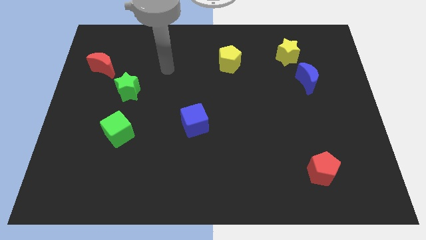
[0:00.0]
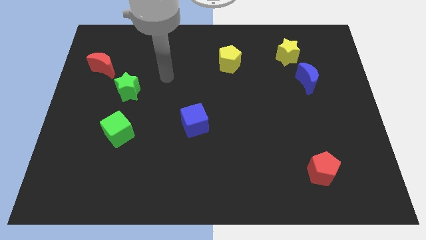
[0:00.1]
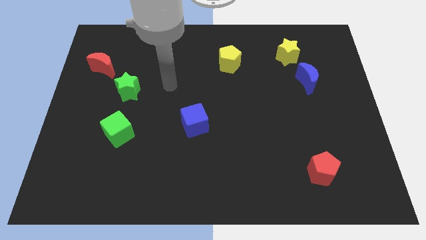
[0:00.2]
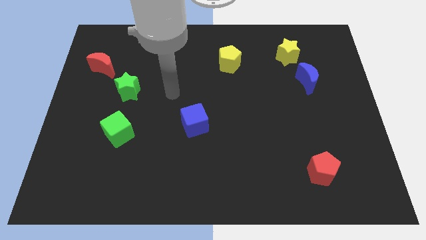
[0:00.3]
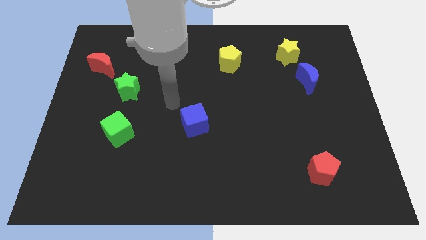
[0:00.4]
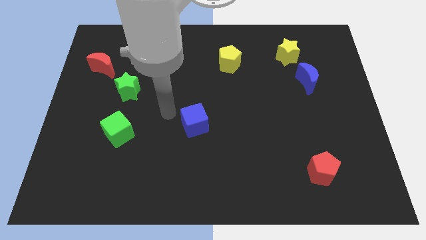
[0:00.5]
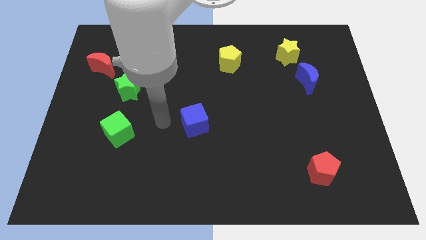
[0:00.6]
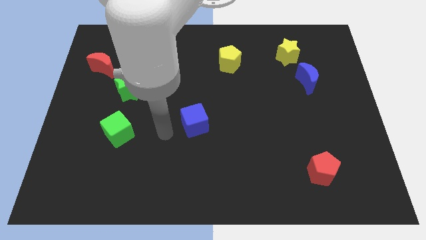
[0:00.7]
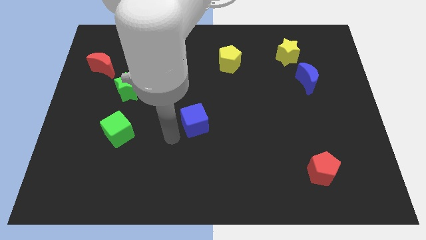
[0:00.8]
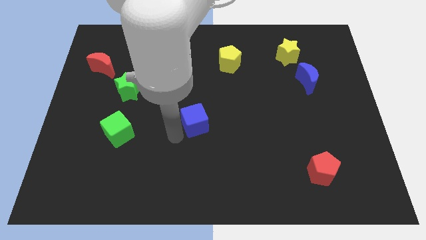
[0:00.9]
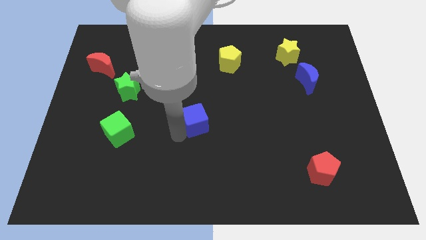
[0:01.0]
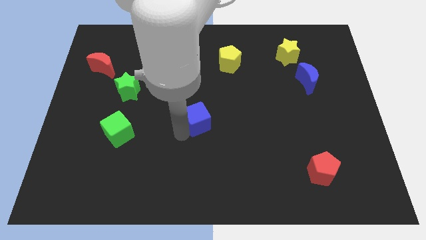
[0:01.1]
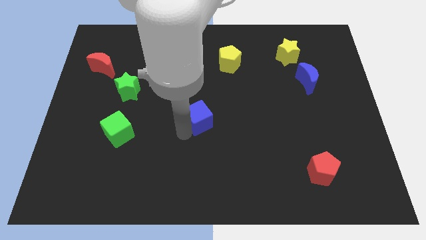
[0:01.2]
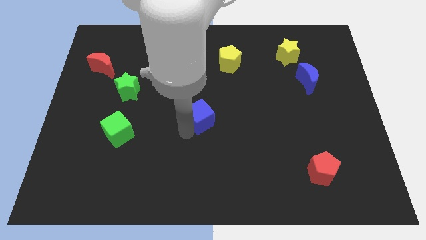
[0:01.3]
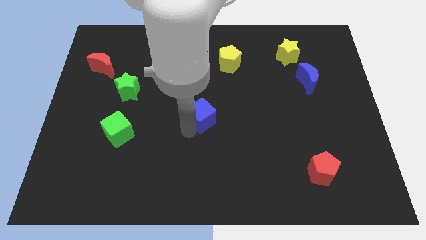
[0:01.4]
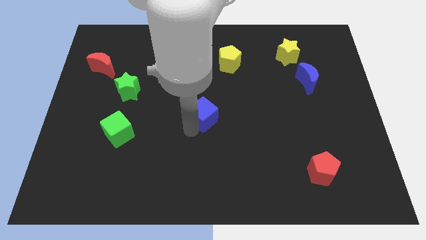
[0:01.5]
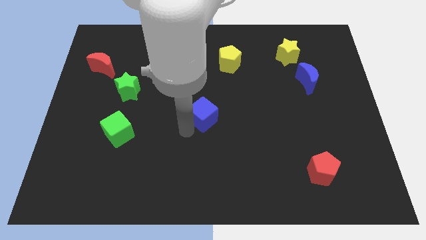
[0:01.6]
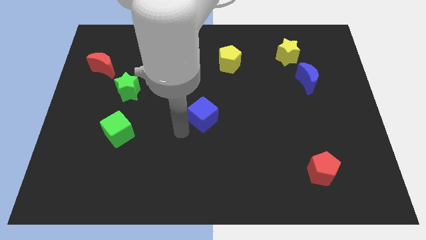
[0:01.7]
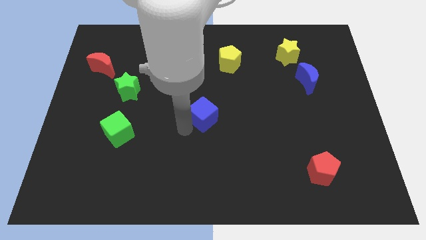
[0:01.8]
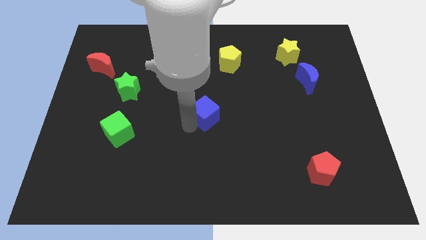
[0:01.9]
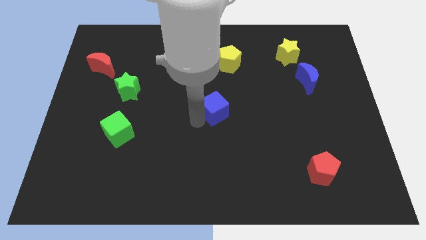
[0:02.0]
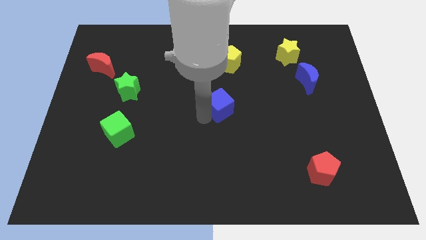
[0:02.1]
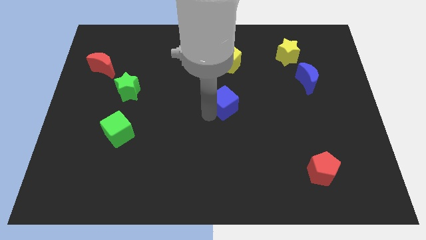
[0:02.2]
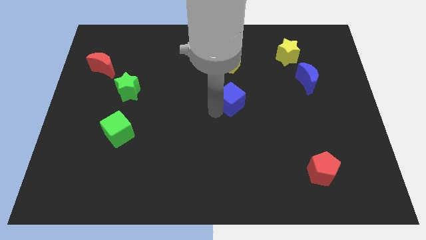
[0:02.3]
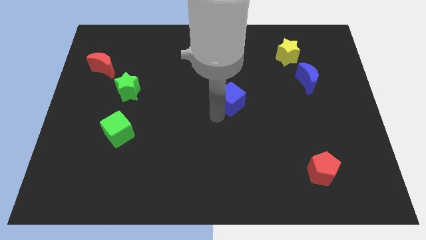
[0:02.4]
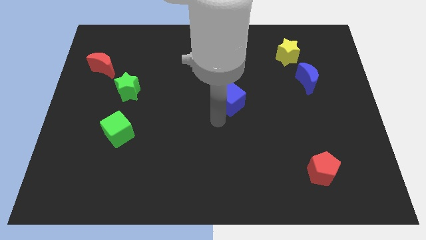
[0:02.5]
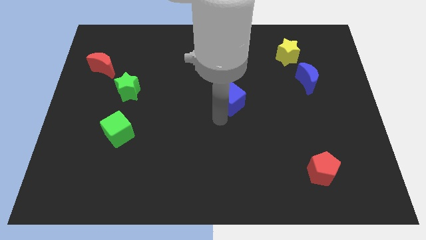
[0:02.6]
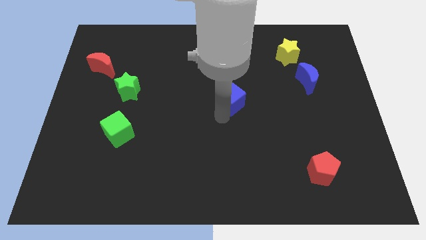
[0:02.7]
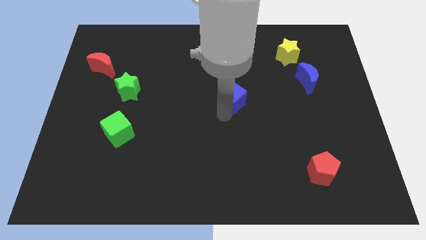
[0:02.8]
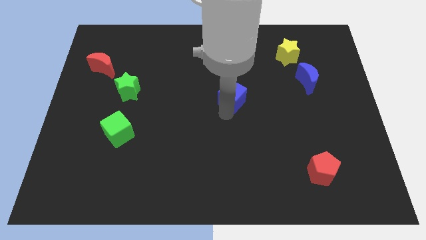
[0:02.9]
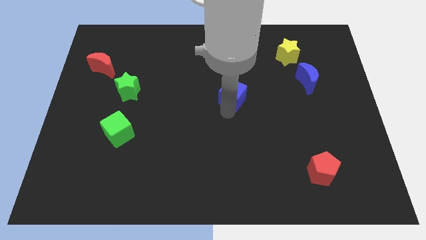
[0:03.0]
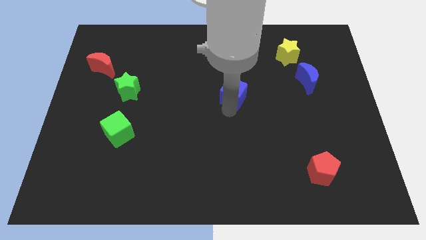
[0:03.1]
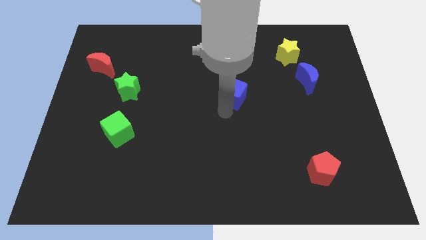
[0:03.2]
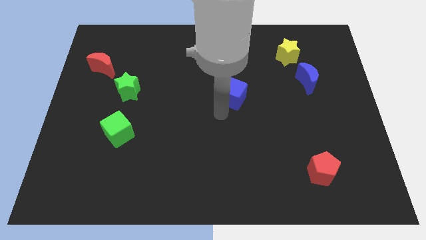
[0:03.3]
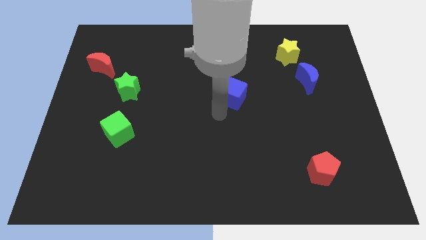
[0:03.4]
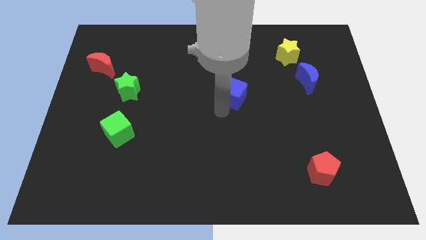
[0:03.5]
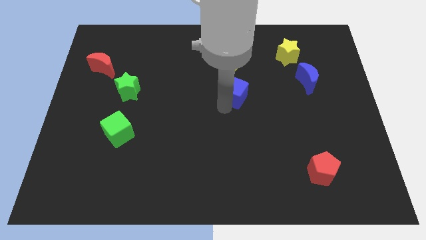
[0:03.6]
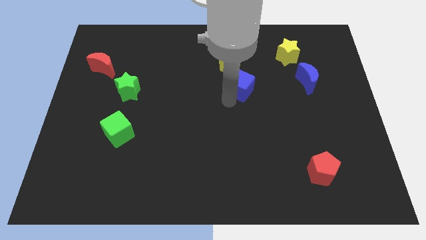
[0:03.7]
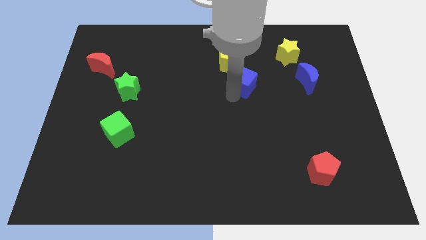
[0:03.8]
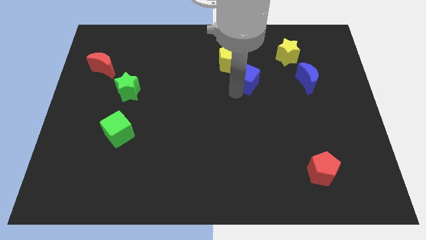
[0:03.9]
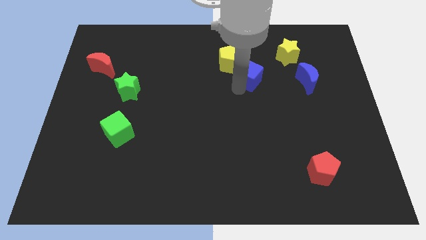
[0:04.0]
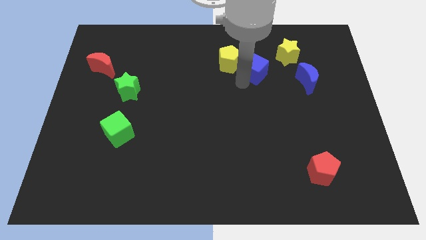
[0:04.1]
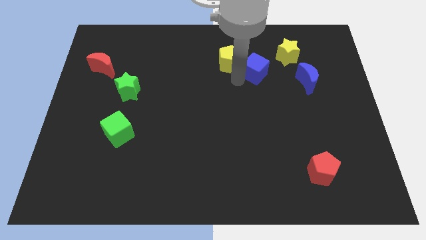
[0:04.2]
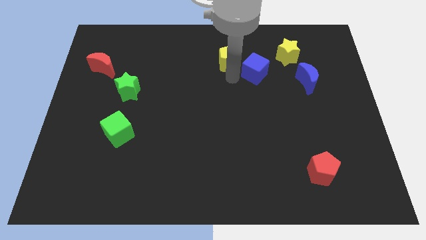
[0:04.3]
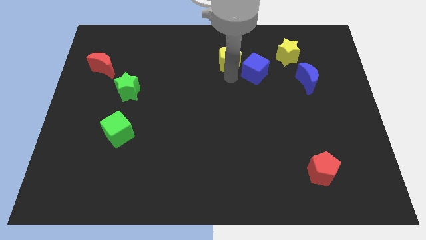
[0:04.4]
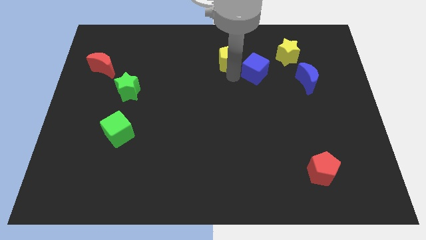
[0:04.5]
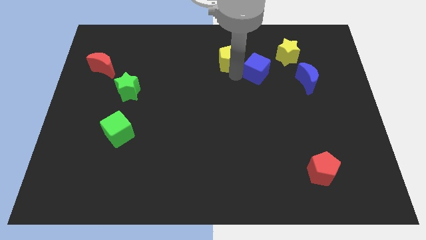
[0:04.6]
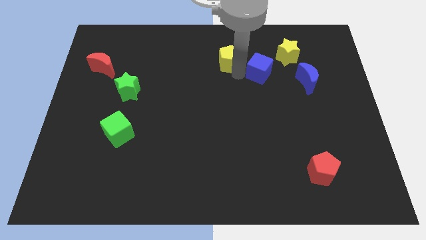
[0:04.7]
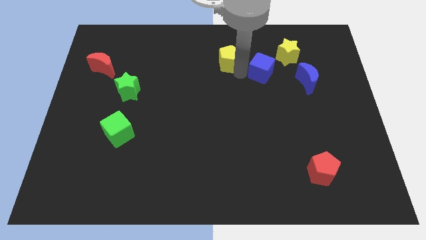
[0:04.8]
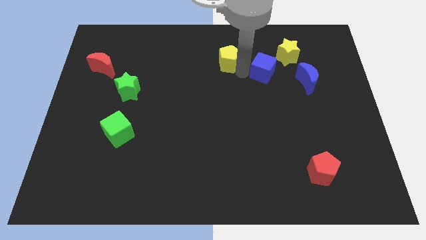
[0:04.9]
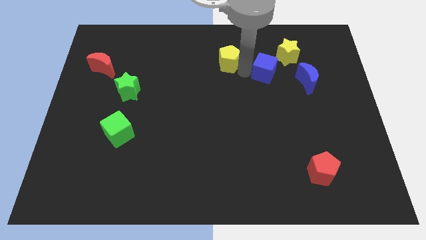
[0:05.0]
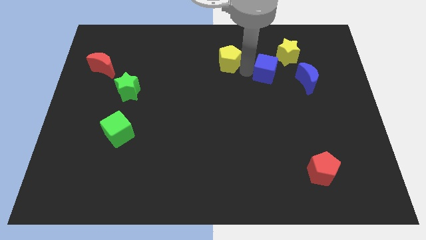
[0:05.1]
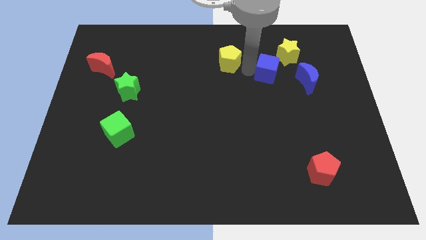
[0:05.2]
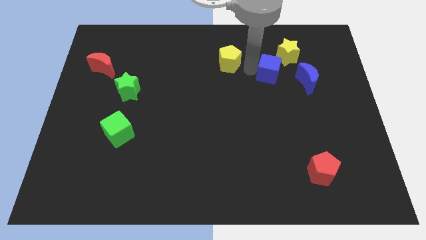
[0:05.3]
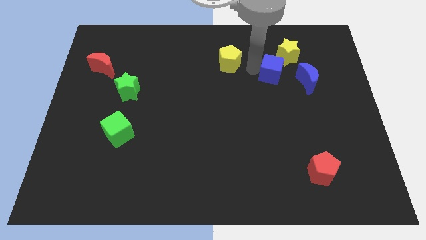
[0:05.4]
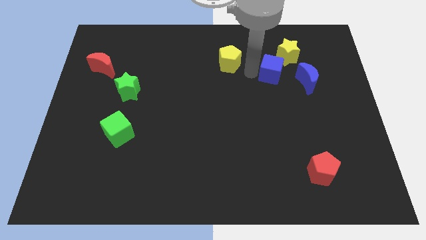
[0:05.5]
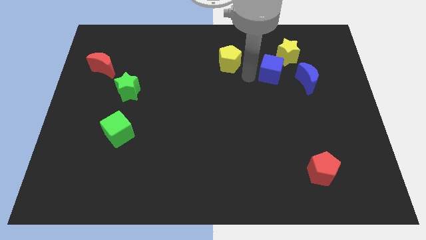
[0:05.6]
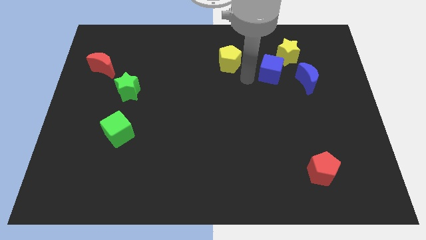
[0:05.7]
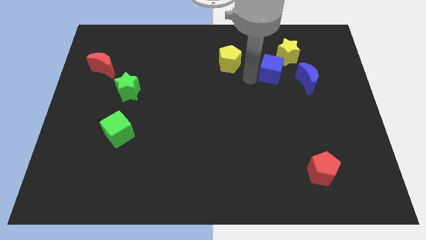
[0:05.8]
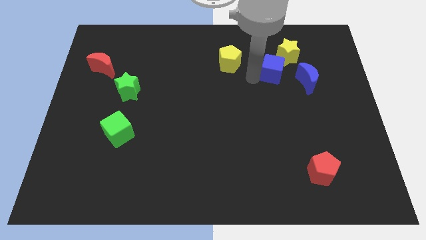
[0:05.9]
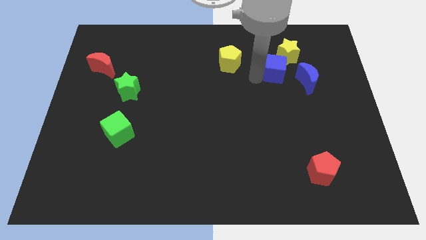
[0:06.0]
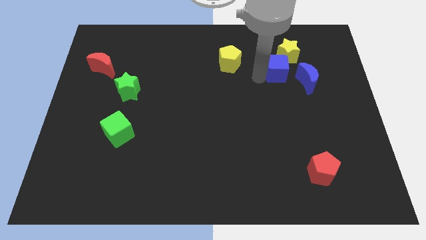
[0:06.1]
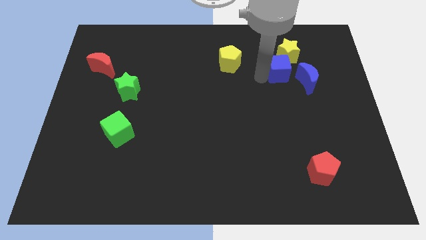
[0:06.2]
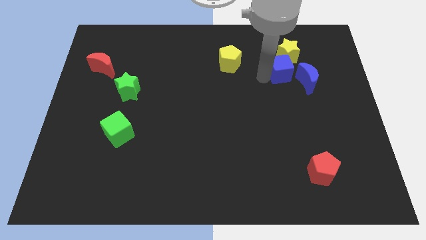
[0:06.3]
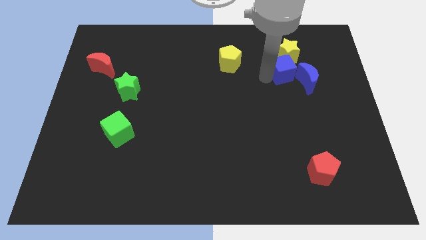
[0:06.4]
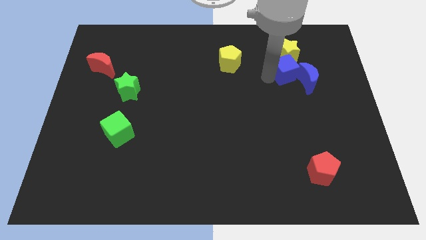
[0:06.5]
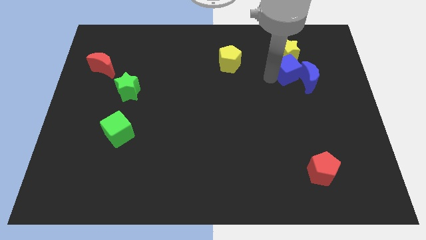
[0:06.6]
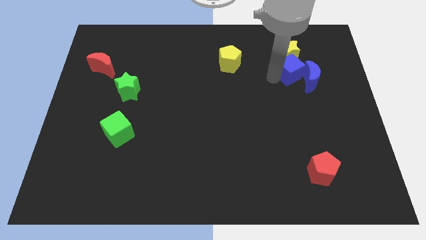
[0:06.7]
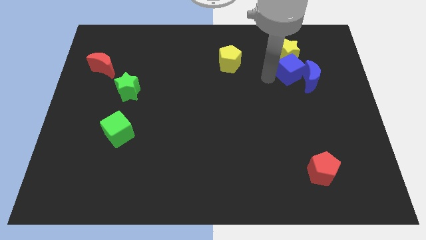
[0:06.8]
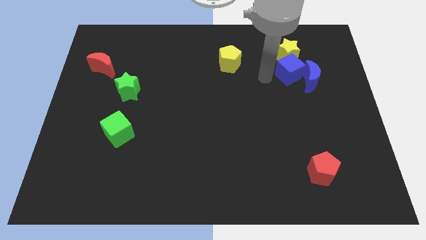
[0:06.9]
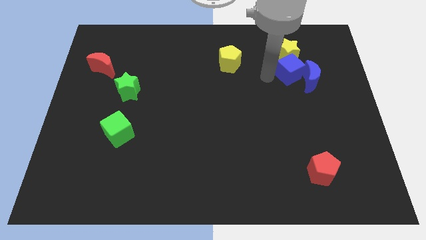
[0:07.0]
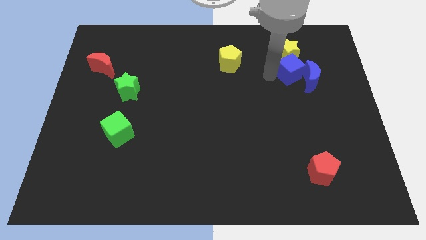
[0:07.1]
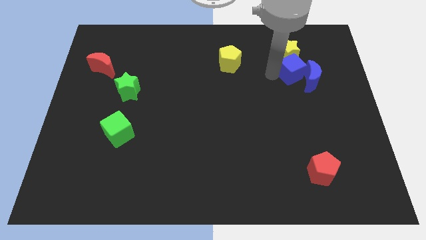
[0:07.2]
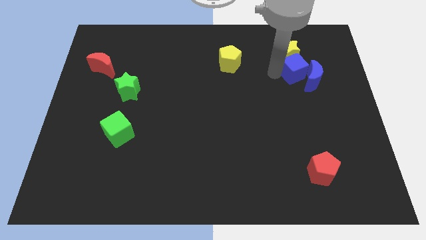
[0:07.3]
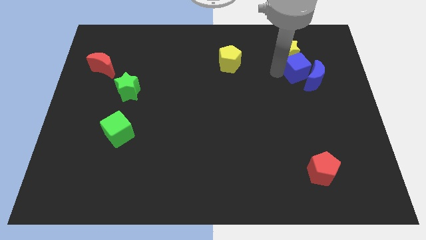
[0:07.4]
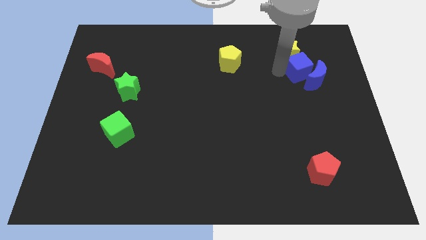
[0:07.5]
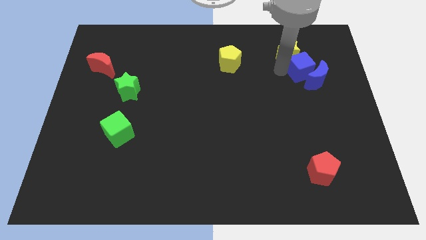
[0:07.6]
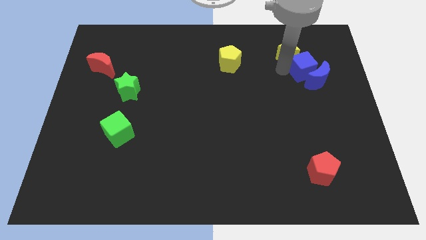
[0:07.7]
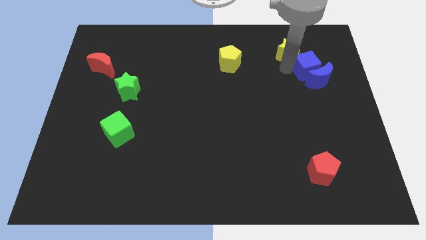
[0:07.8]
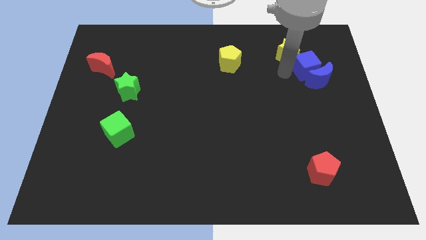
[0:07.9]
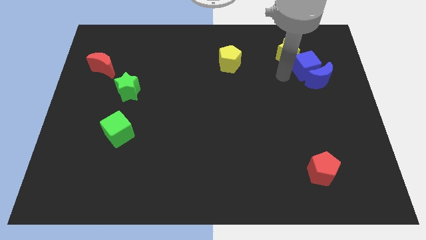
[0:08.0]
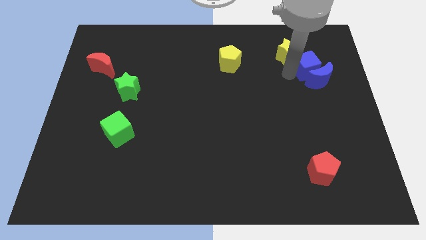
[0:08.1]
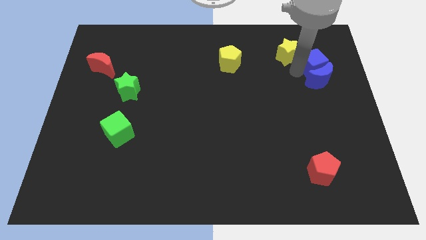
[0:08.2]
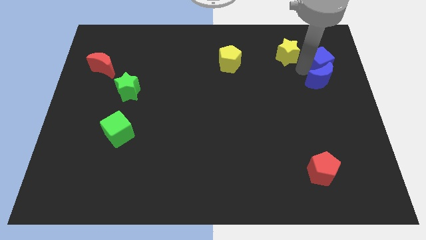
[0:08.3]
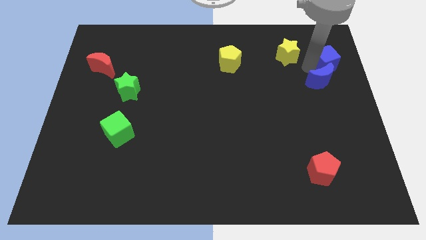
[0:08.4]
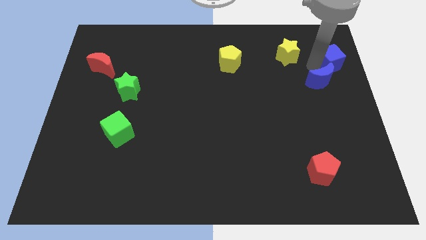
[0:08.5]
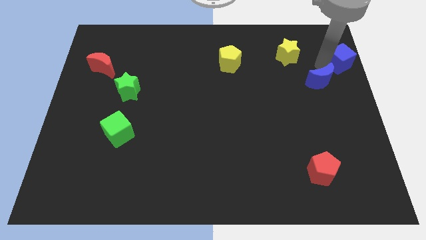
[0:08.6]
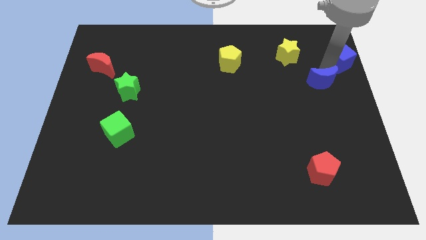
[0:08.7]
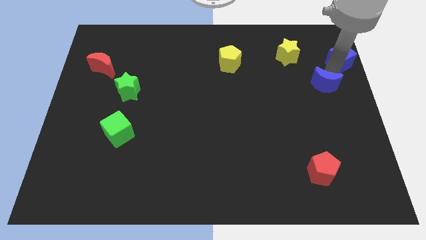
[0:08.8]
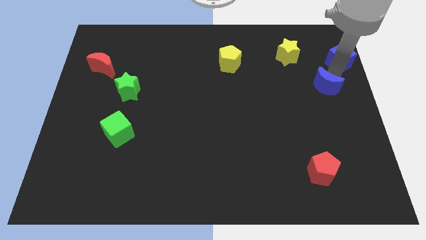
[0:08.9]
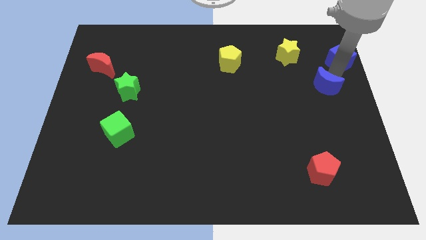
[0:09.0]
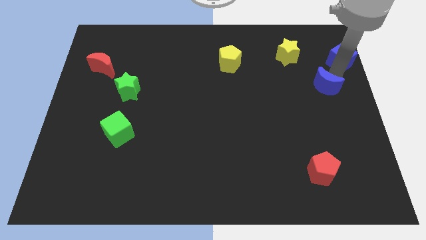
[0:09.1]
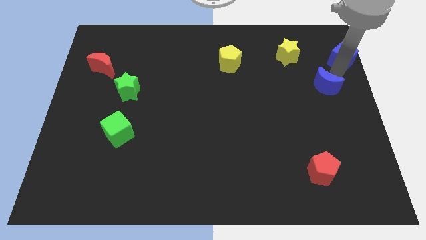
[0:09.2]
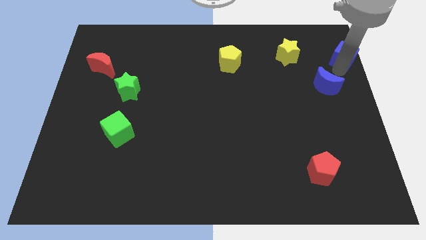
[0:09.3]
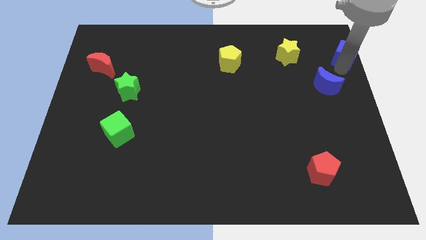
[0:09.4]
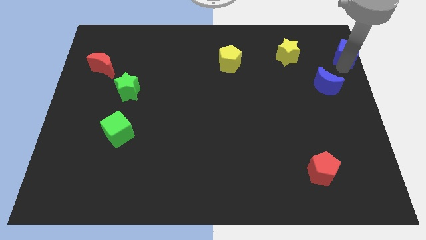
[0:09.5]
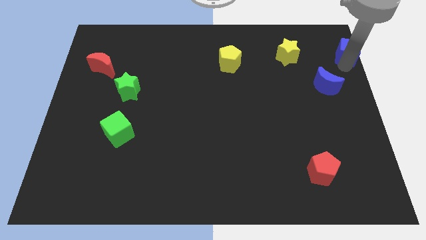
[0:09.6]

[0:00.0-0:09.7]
push the blue cube to the top right of the board
